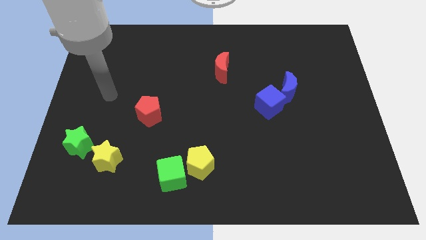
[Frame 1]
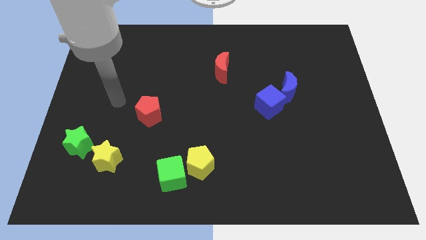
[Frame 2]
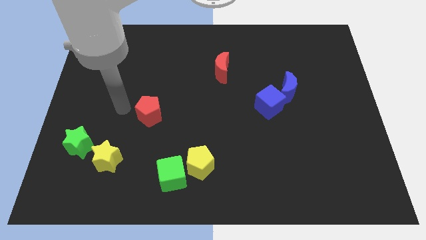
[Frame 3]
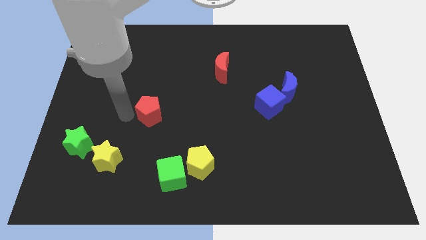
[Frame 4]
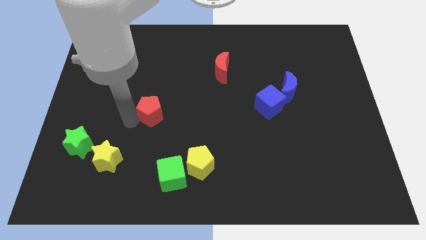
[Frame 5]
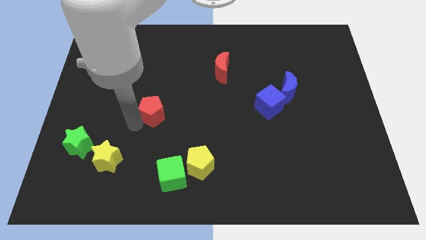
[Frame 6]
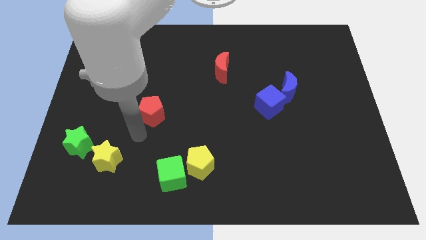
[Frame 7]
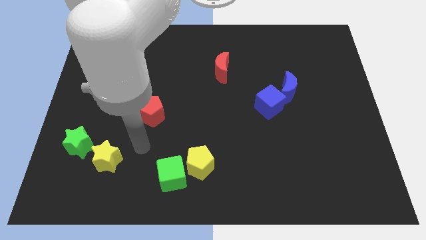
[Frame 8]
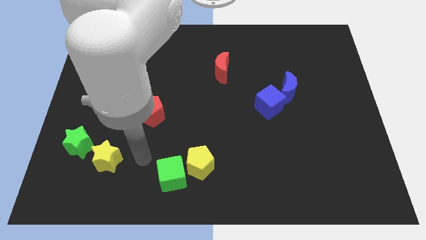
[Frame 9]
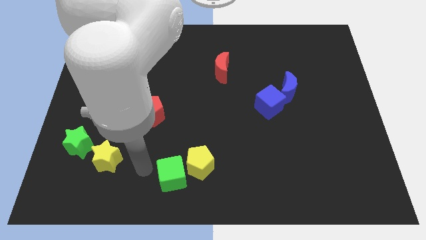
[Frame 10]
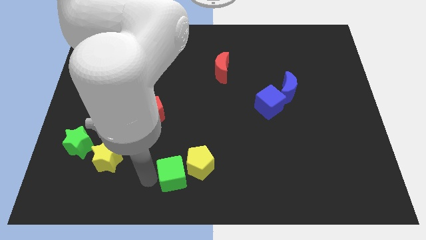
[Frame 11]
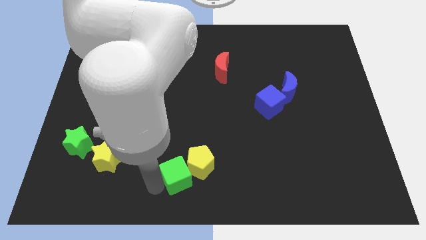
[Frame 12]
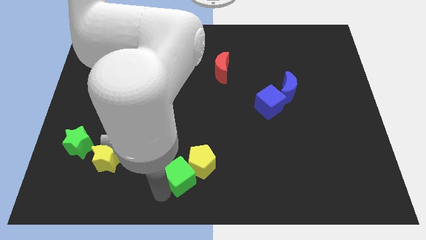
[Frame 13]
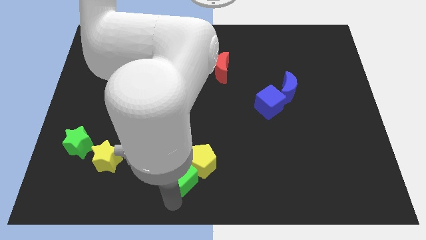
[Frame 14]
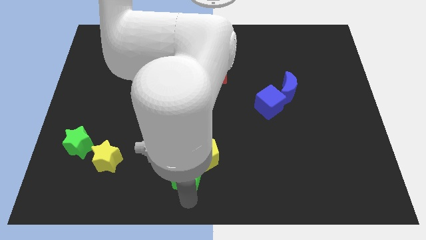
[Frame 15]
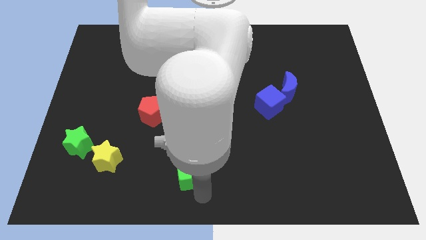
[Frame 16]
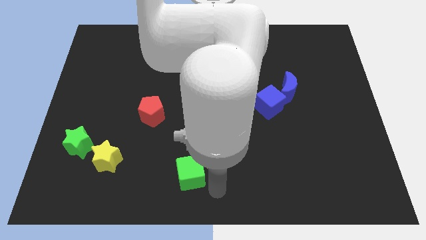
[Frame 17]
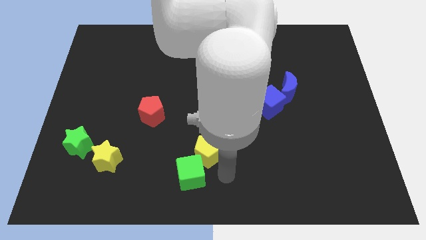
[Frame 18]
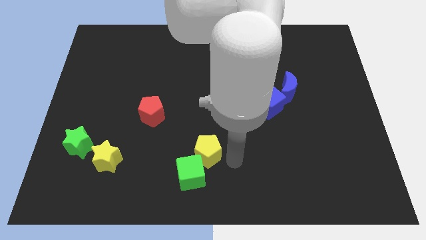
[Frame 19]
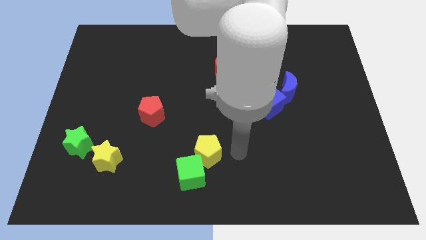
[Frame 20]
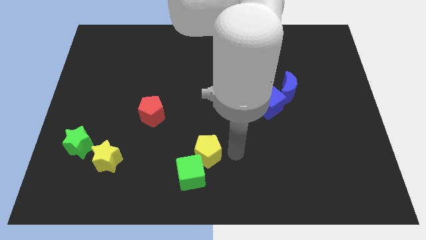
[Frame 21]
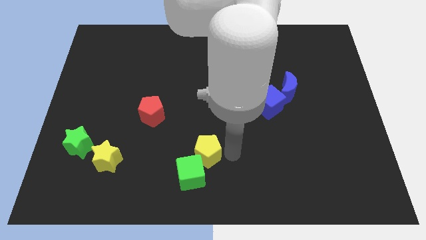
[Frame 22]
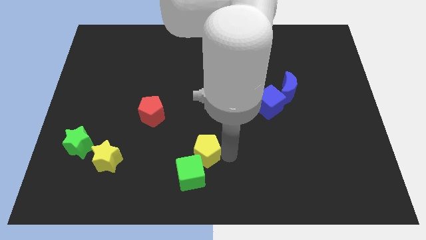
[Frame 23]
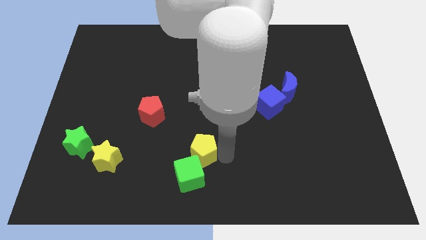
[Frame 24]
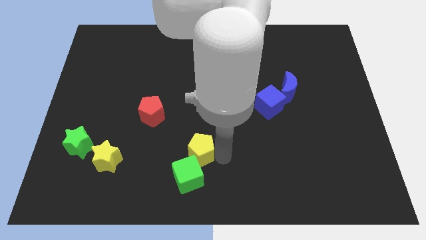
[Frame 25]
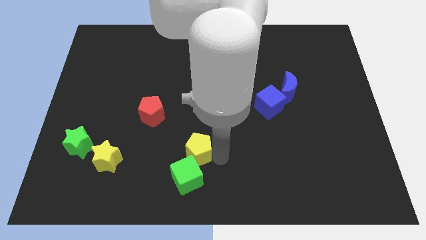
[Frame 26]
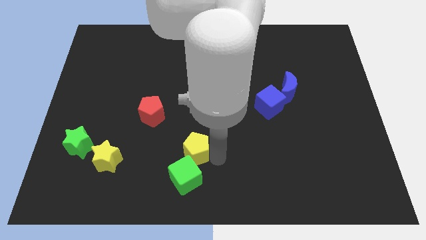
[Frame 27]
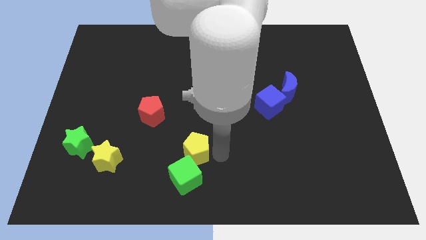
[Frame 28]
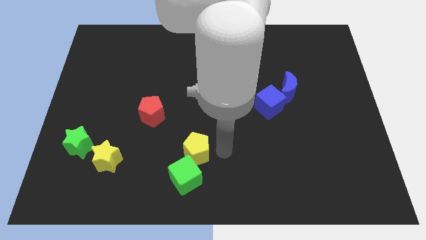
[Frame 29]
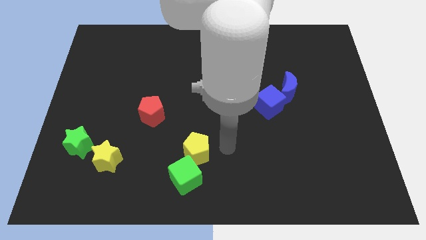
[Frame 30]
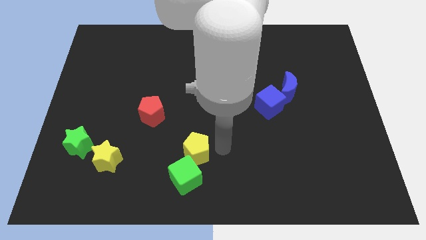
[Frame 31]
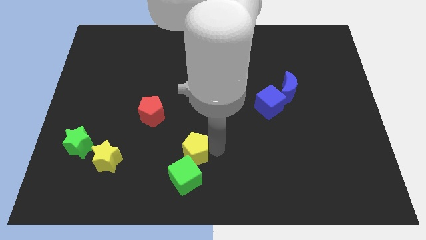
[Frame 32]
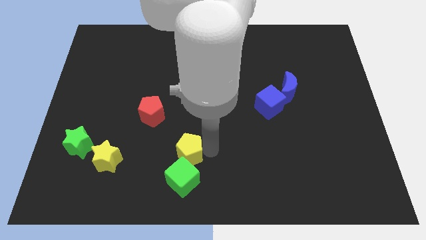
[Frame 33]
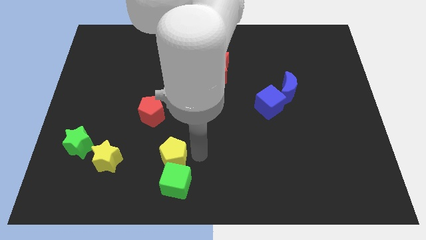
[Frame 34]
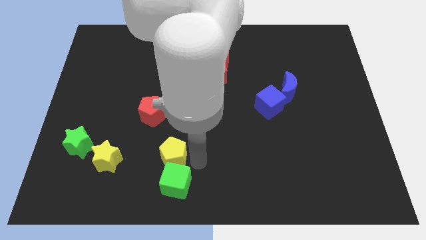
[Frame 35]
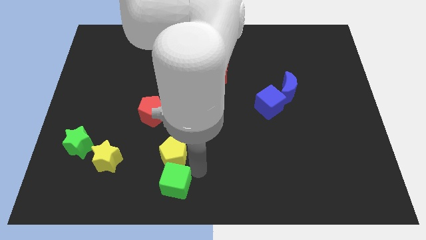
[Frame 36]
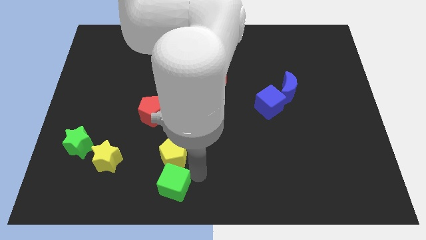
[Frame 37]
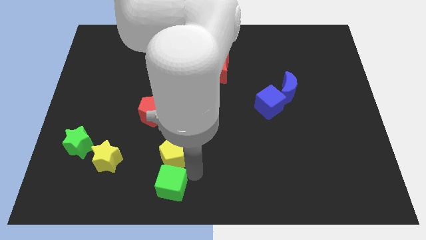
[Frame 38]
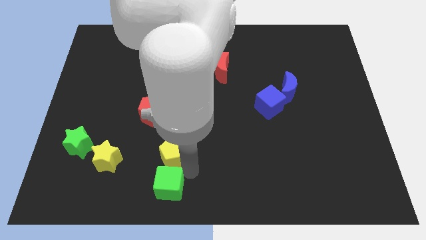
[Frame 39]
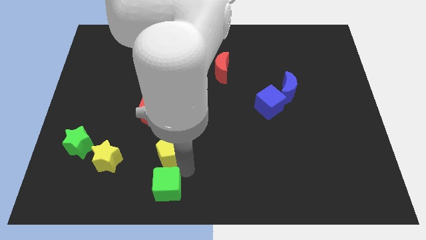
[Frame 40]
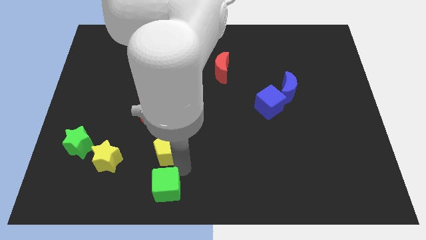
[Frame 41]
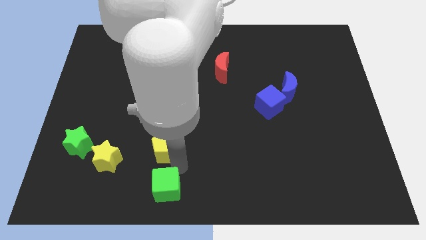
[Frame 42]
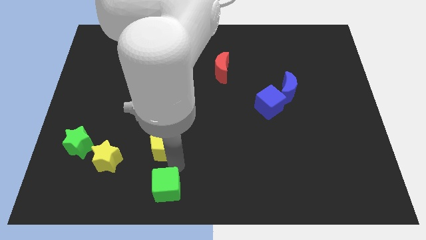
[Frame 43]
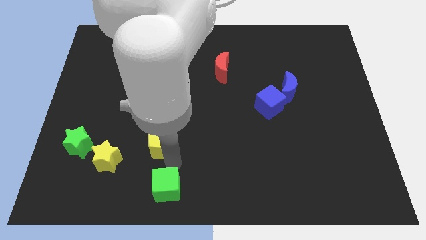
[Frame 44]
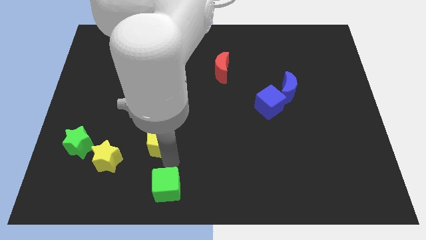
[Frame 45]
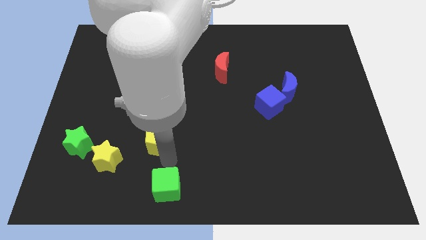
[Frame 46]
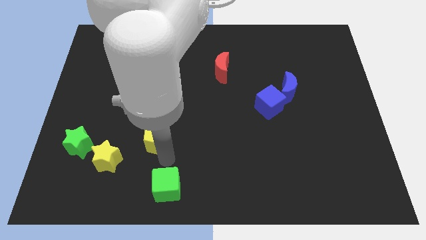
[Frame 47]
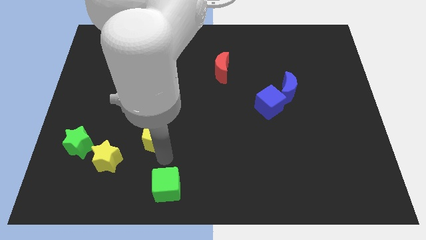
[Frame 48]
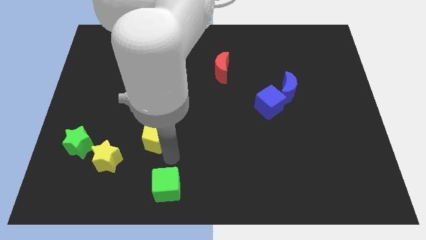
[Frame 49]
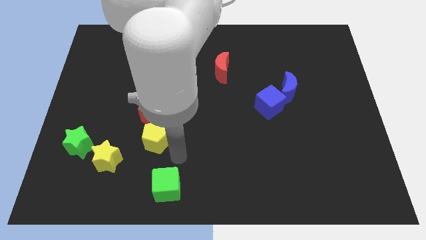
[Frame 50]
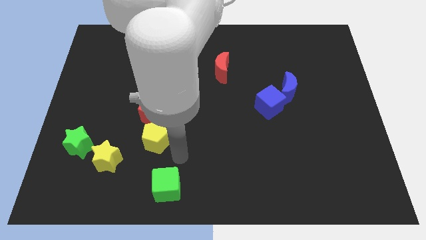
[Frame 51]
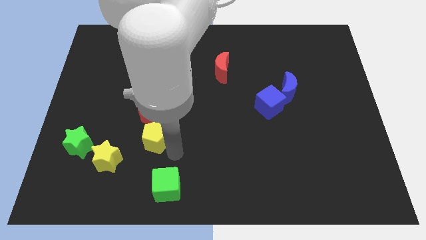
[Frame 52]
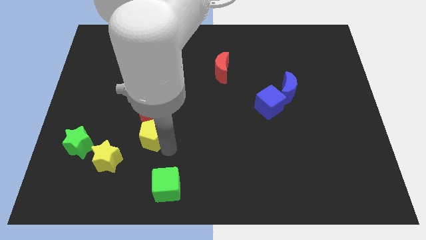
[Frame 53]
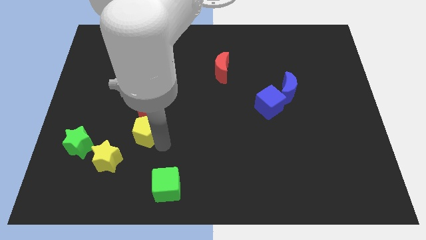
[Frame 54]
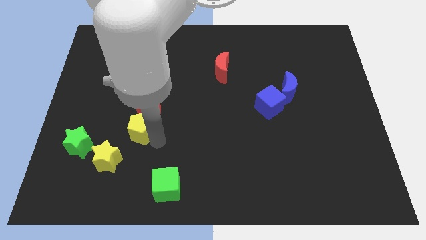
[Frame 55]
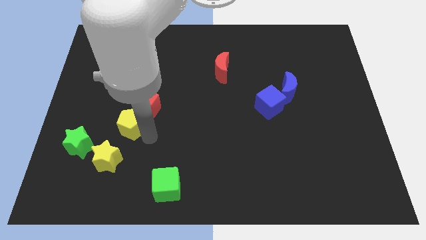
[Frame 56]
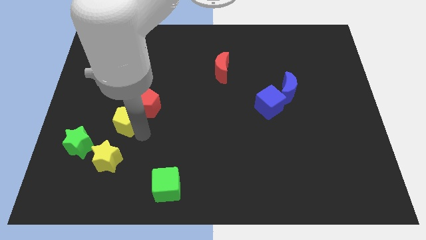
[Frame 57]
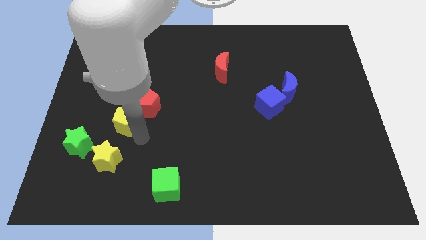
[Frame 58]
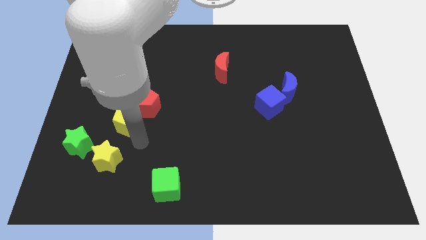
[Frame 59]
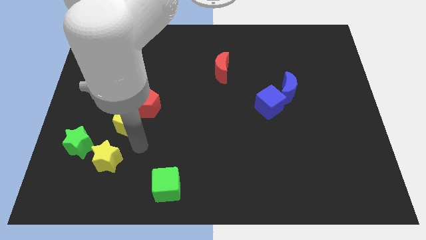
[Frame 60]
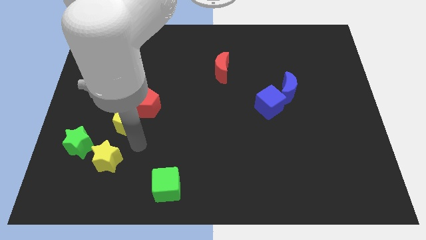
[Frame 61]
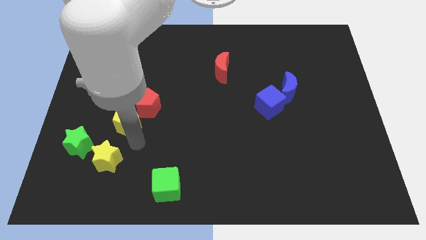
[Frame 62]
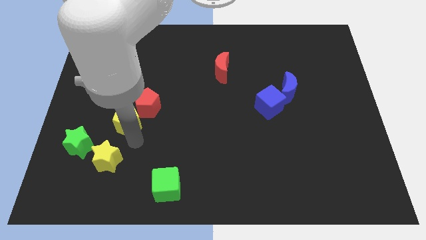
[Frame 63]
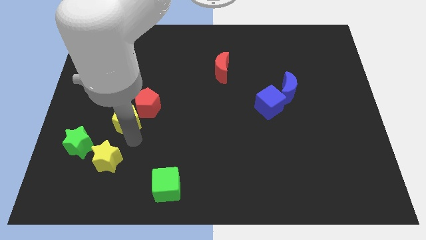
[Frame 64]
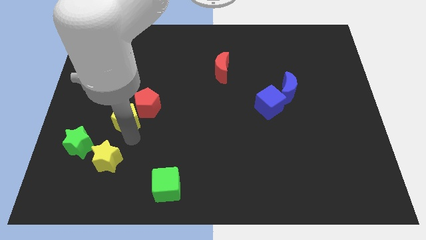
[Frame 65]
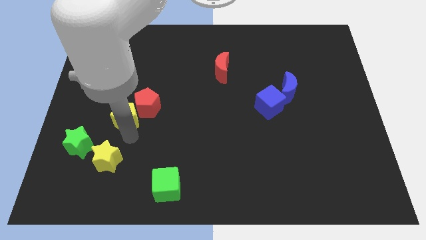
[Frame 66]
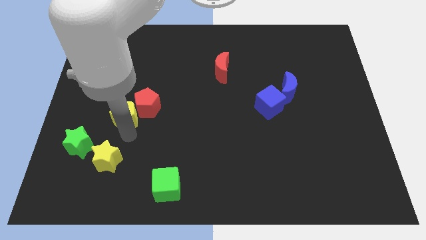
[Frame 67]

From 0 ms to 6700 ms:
move the yellow pentagon upwards and then left

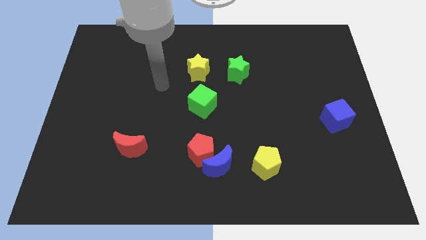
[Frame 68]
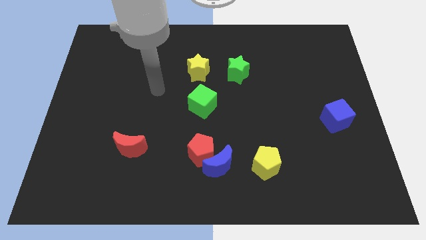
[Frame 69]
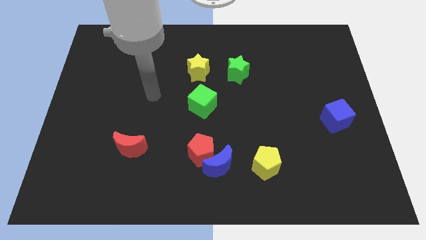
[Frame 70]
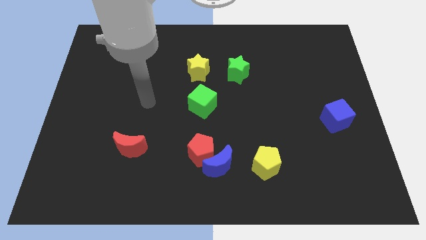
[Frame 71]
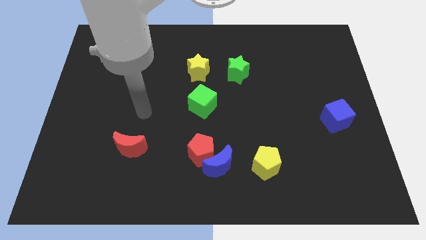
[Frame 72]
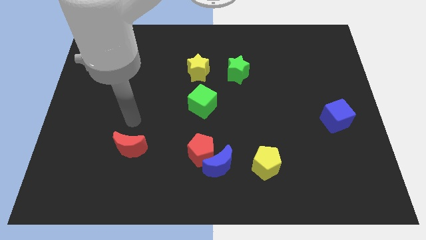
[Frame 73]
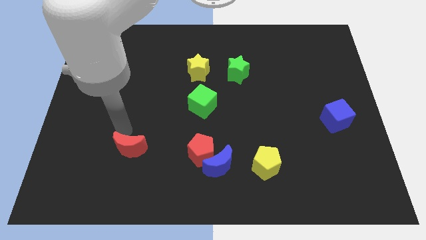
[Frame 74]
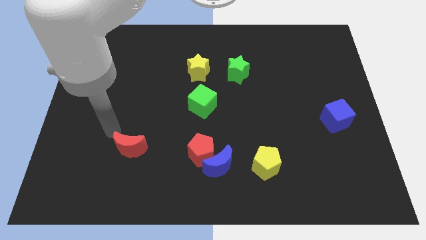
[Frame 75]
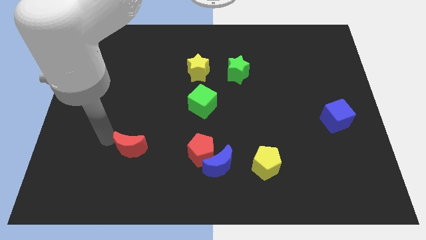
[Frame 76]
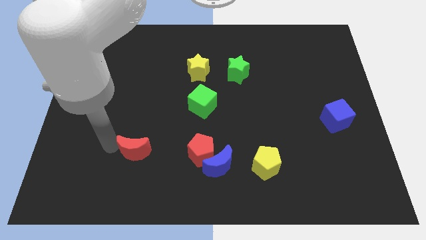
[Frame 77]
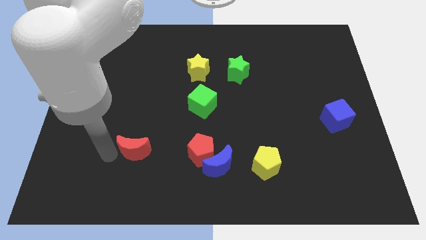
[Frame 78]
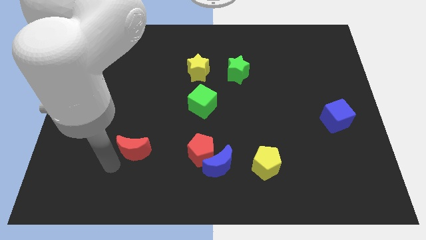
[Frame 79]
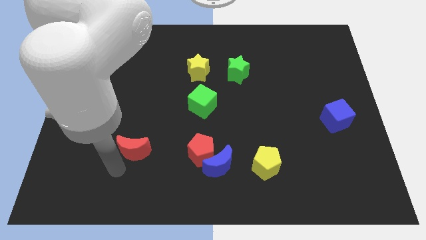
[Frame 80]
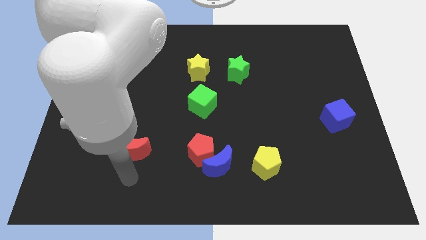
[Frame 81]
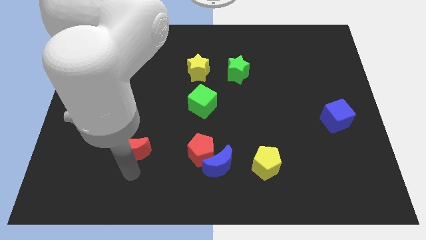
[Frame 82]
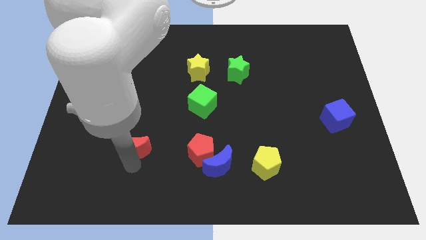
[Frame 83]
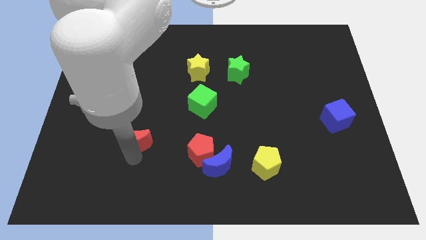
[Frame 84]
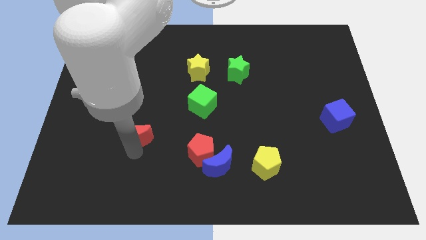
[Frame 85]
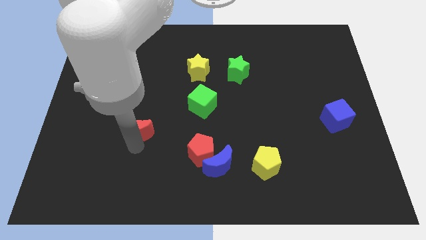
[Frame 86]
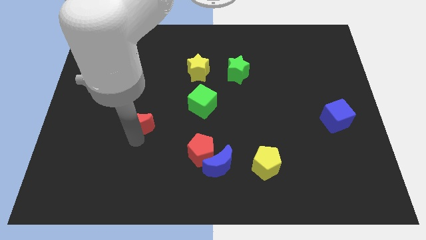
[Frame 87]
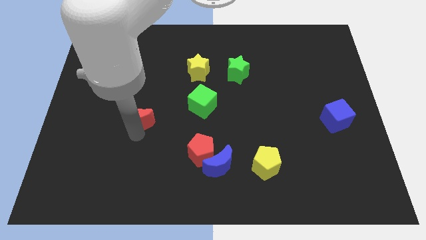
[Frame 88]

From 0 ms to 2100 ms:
slightly slide the red moon up

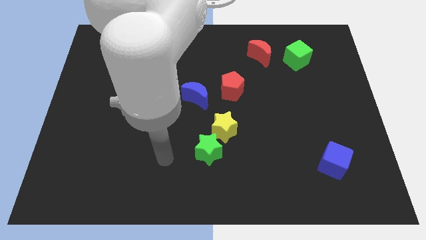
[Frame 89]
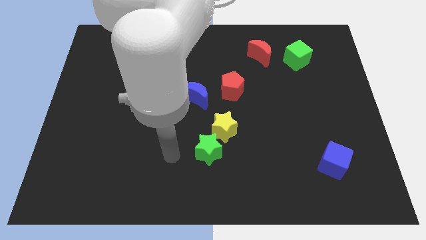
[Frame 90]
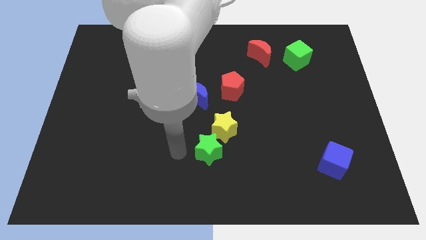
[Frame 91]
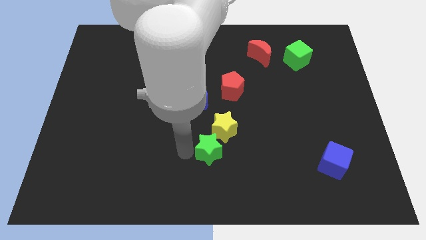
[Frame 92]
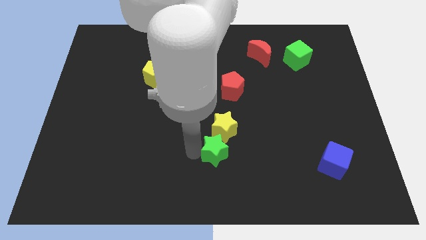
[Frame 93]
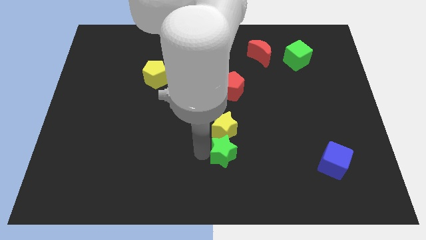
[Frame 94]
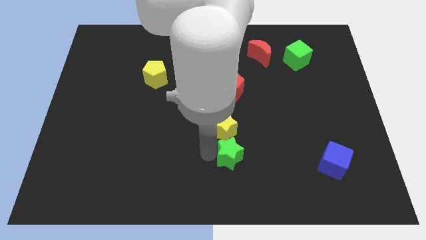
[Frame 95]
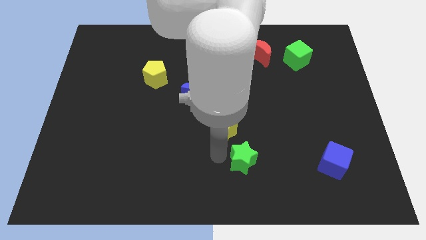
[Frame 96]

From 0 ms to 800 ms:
push the green star right slightly
